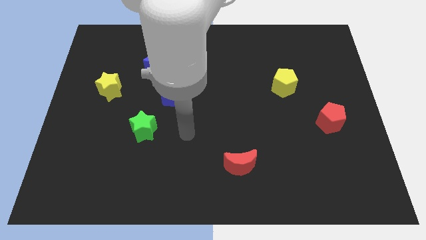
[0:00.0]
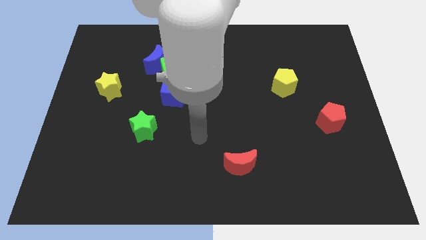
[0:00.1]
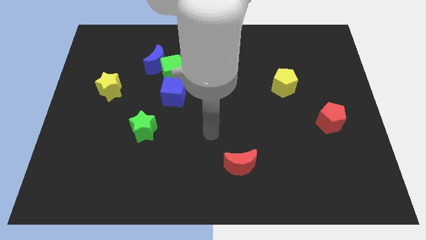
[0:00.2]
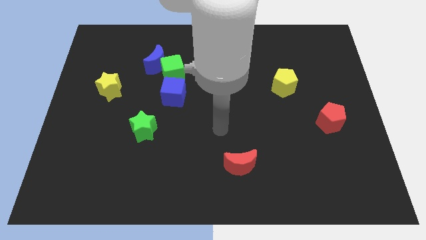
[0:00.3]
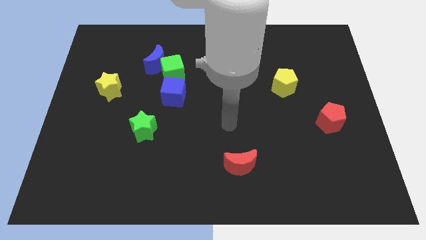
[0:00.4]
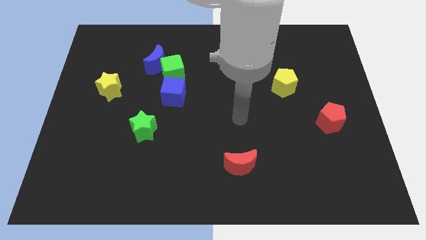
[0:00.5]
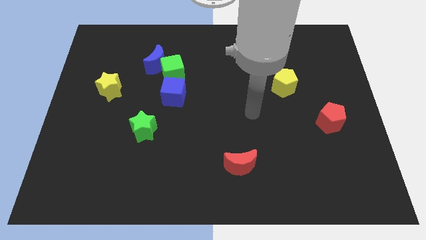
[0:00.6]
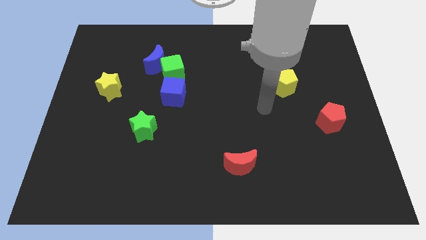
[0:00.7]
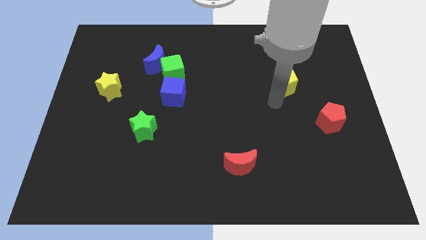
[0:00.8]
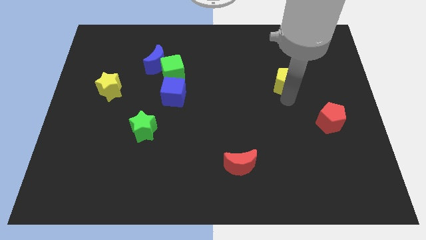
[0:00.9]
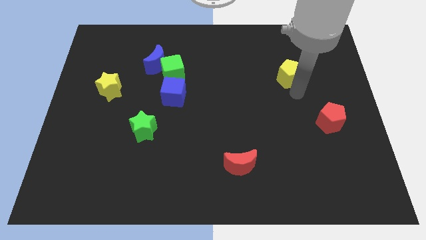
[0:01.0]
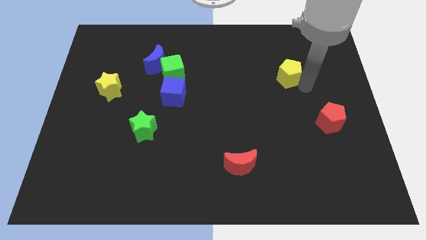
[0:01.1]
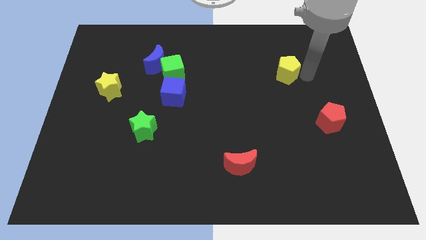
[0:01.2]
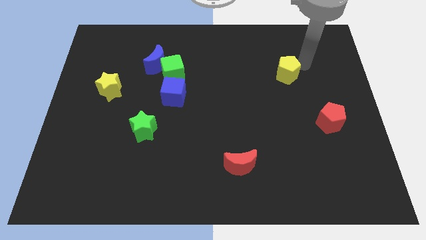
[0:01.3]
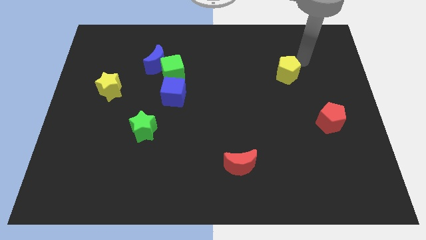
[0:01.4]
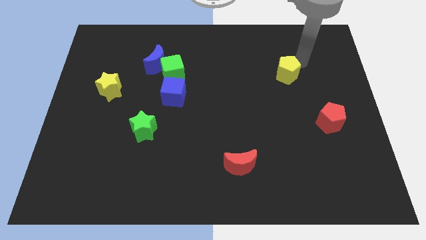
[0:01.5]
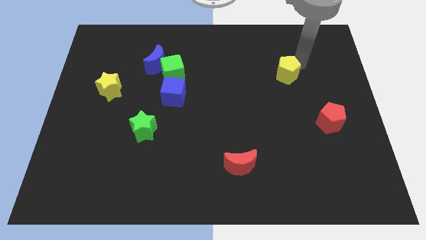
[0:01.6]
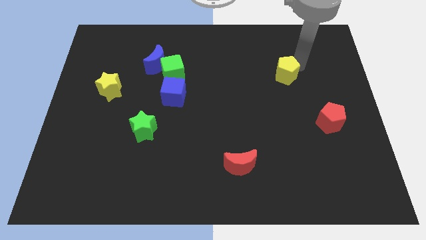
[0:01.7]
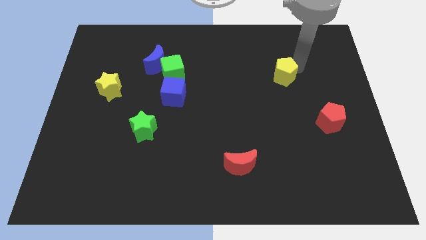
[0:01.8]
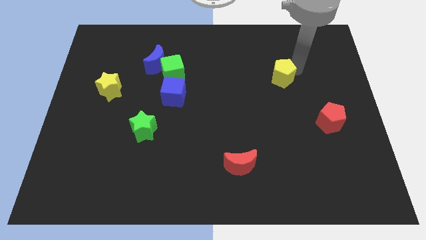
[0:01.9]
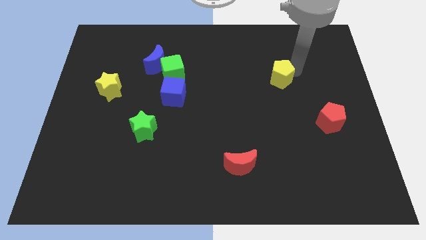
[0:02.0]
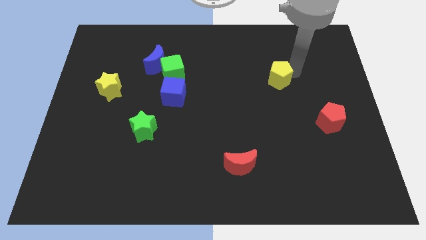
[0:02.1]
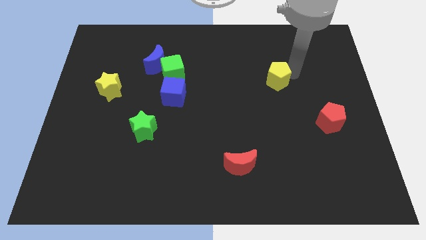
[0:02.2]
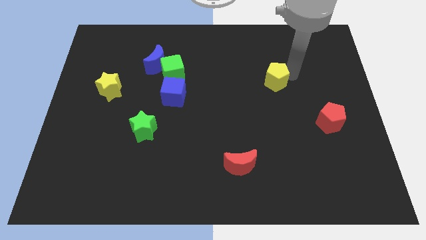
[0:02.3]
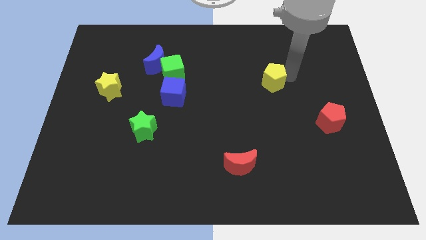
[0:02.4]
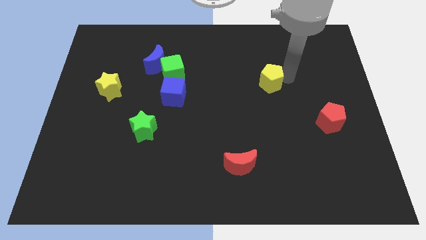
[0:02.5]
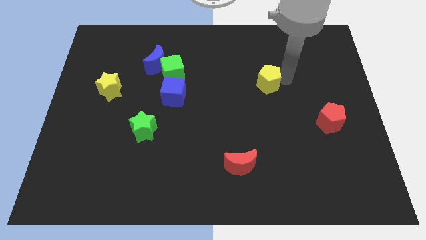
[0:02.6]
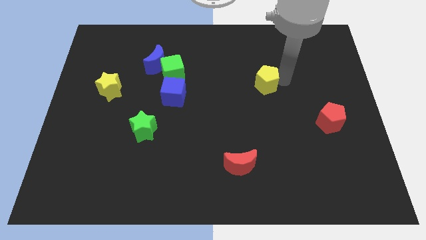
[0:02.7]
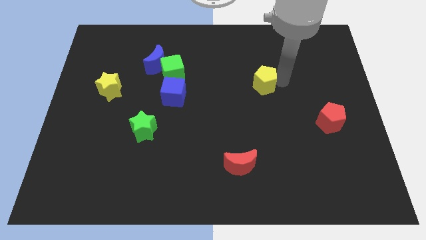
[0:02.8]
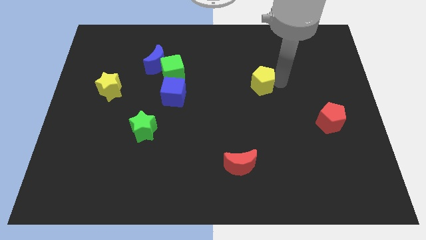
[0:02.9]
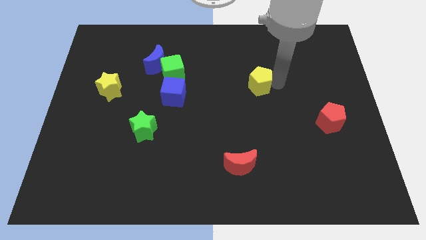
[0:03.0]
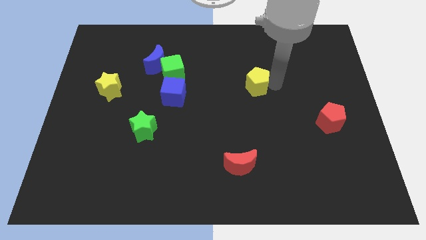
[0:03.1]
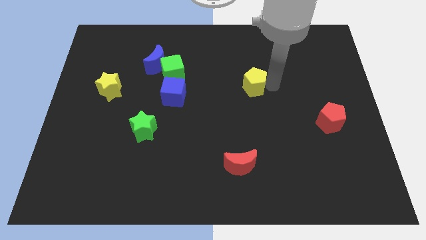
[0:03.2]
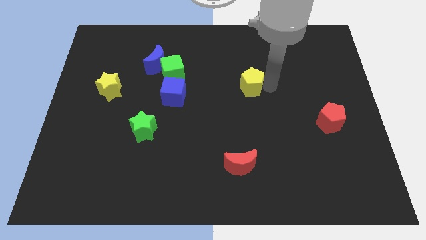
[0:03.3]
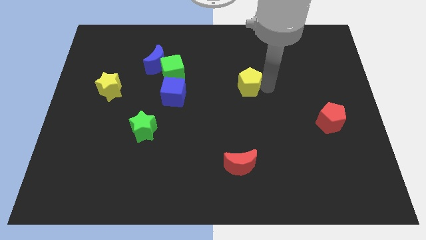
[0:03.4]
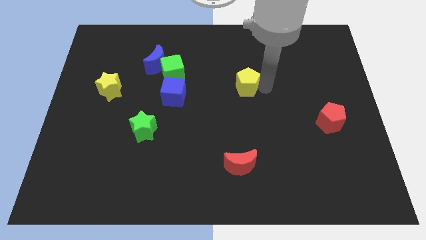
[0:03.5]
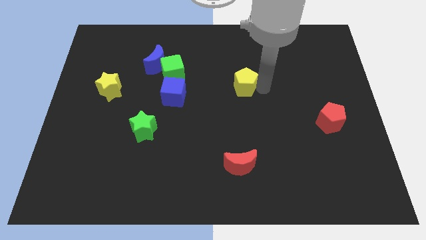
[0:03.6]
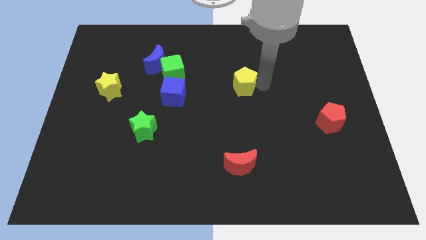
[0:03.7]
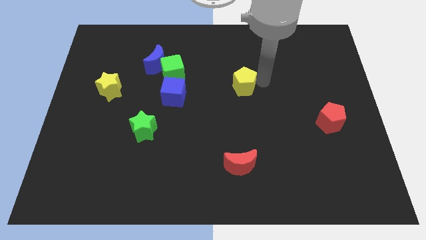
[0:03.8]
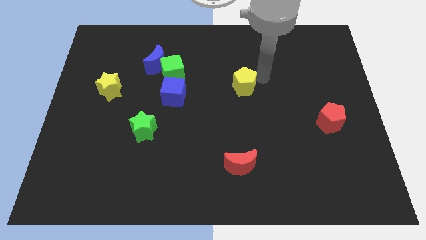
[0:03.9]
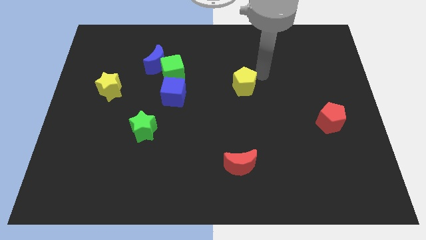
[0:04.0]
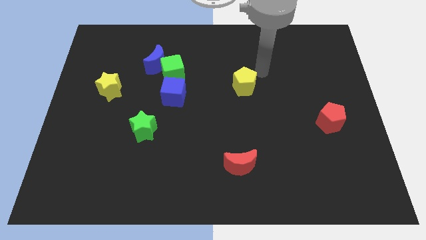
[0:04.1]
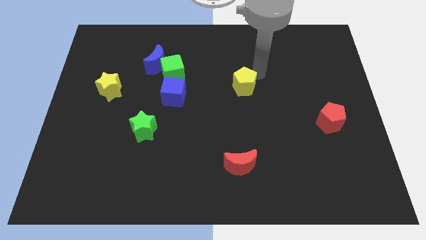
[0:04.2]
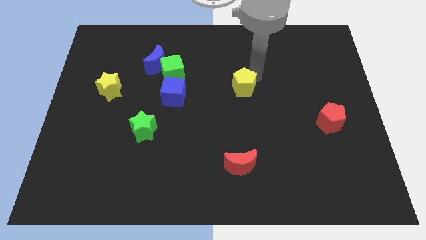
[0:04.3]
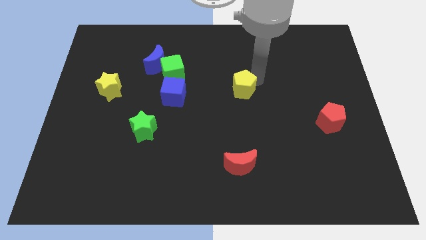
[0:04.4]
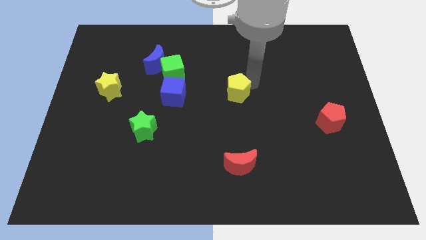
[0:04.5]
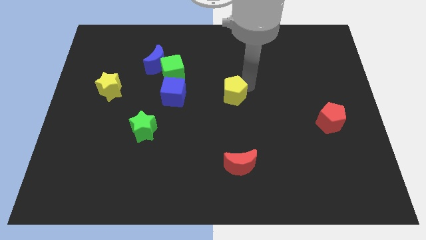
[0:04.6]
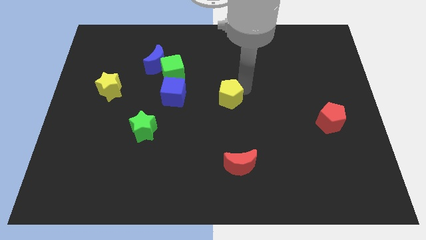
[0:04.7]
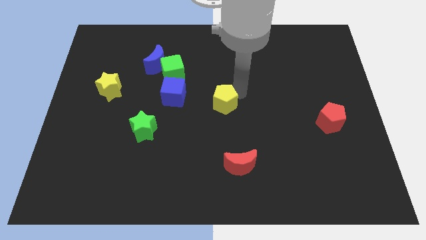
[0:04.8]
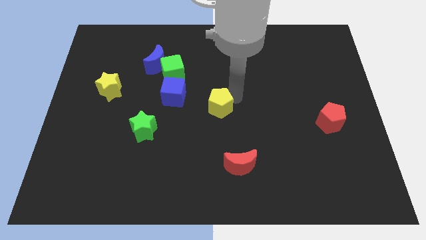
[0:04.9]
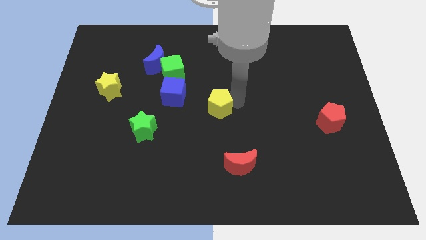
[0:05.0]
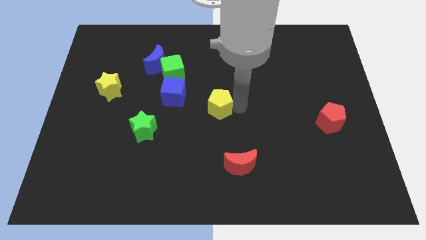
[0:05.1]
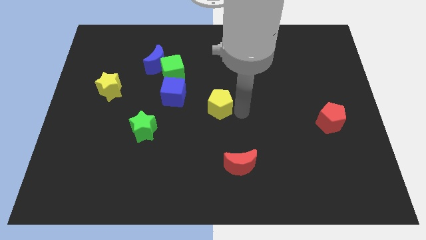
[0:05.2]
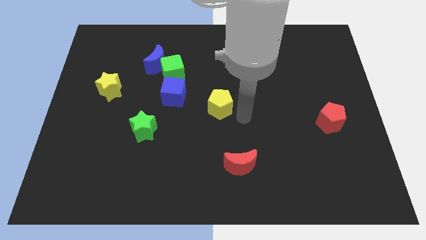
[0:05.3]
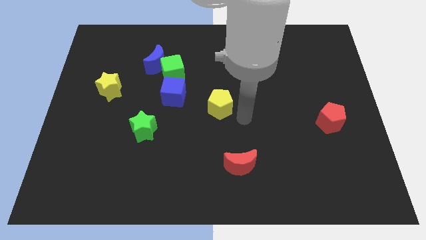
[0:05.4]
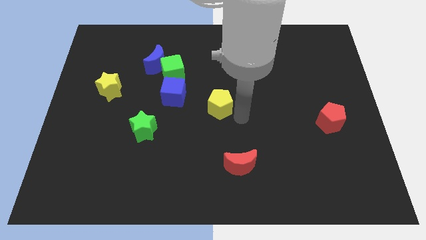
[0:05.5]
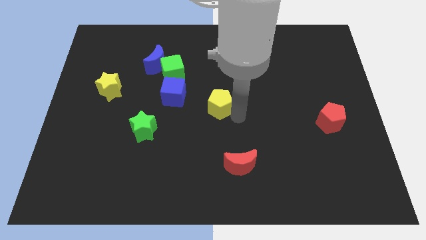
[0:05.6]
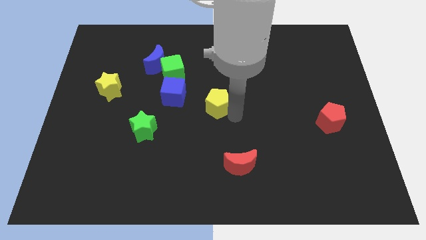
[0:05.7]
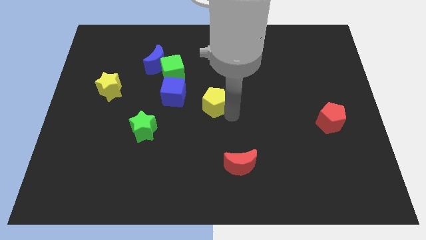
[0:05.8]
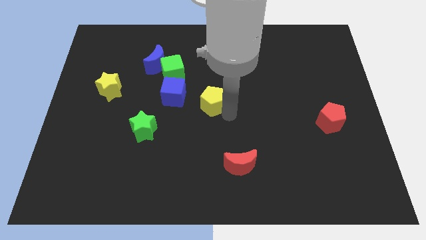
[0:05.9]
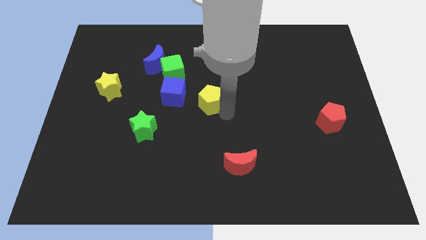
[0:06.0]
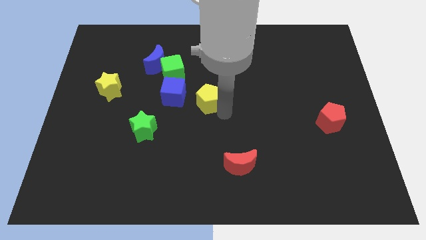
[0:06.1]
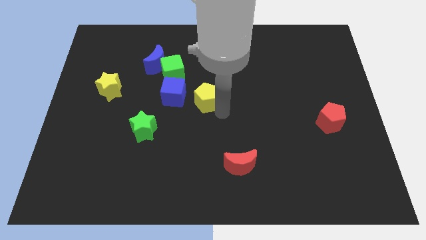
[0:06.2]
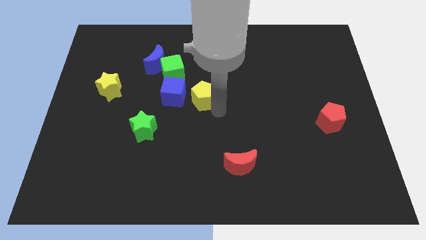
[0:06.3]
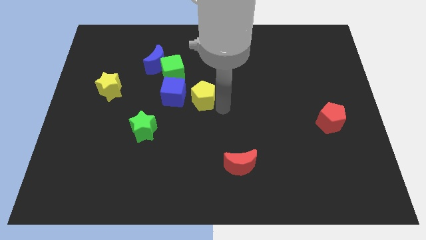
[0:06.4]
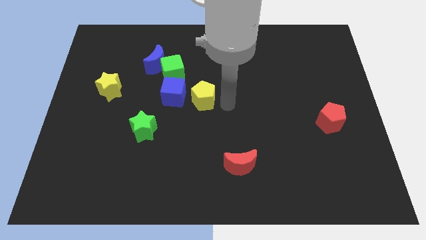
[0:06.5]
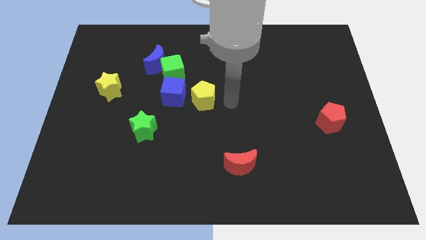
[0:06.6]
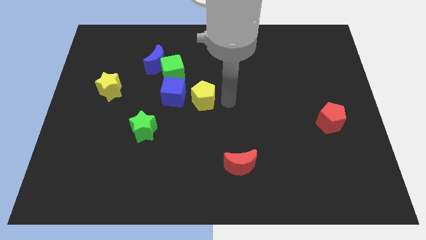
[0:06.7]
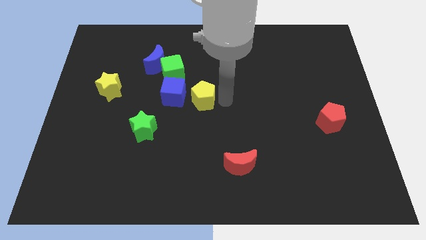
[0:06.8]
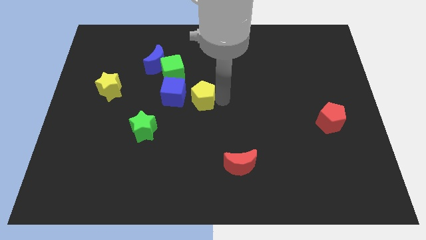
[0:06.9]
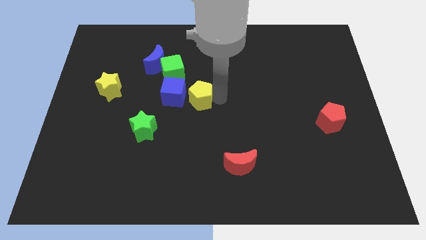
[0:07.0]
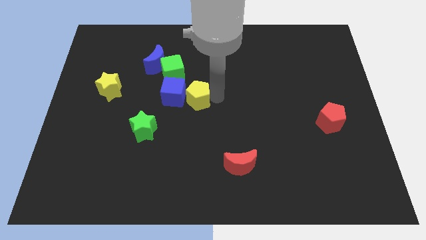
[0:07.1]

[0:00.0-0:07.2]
put the yellow pentagon close to the blue cube

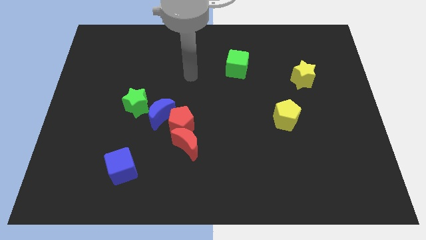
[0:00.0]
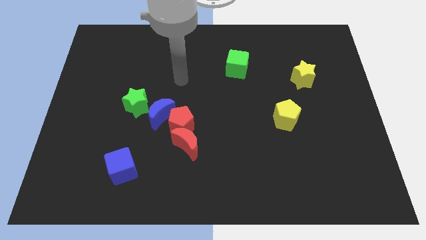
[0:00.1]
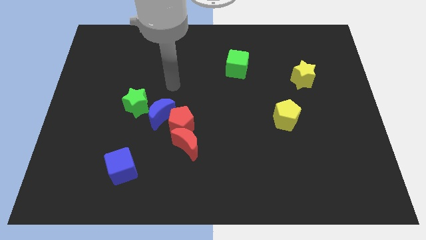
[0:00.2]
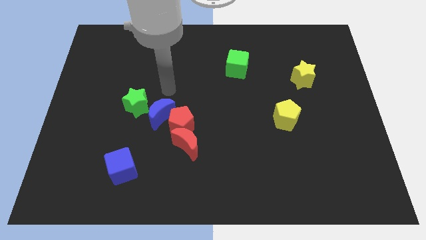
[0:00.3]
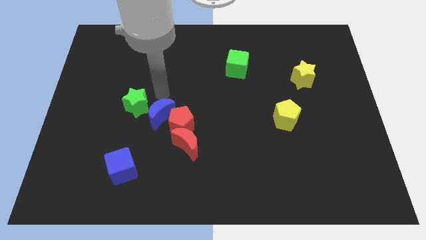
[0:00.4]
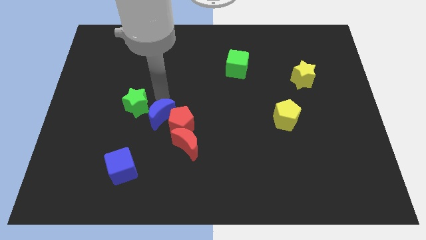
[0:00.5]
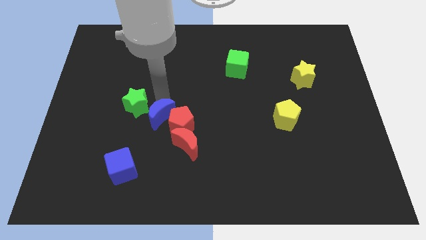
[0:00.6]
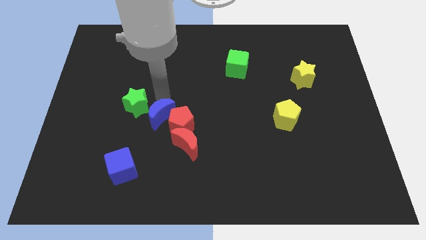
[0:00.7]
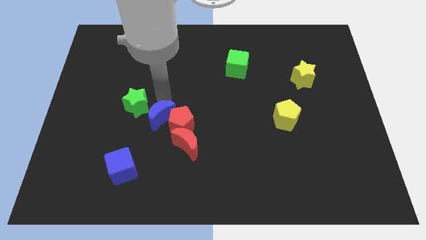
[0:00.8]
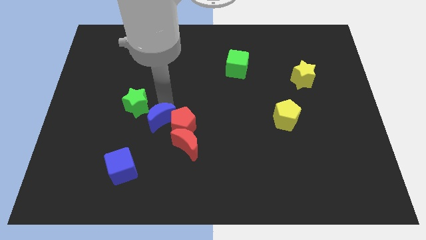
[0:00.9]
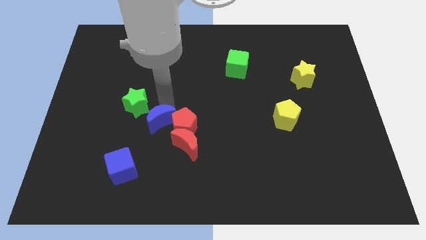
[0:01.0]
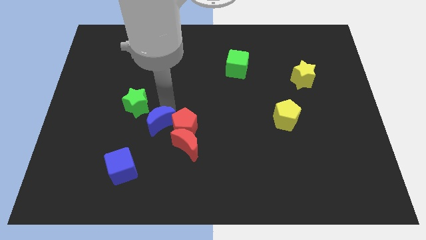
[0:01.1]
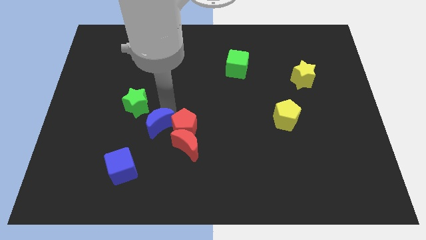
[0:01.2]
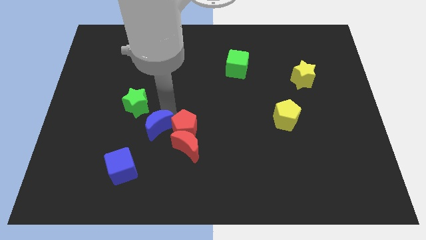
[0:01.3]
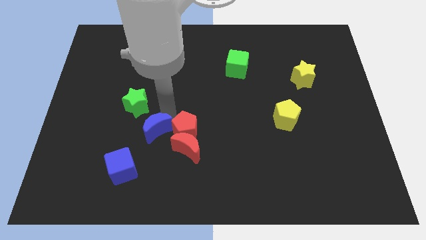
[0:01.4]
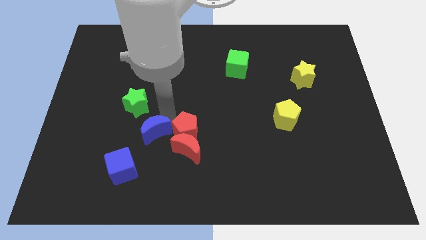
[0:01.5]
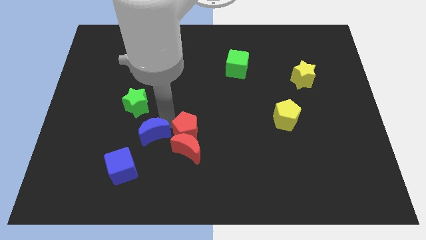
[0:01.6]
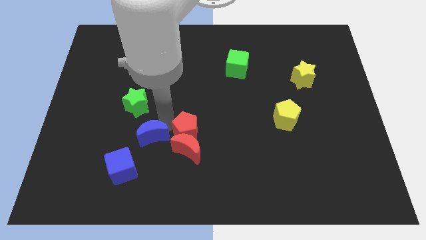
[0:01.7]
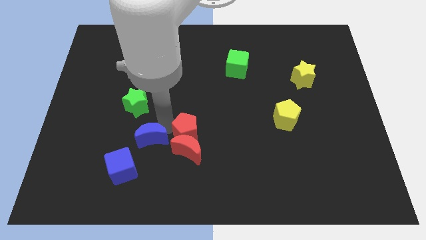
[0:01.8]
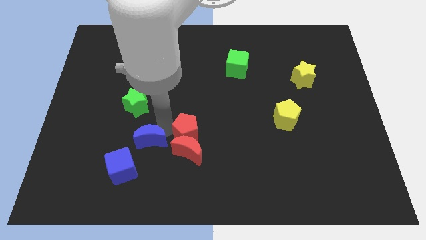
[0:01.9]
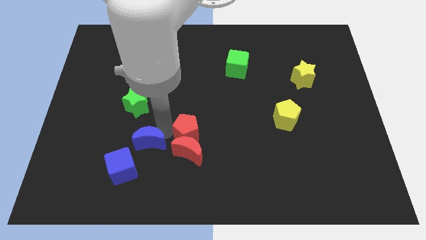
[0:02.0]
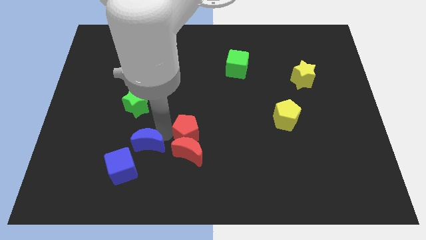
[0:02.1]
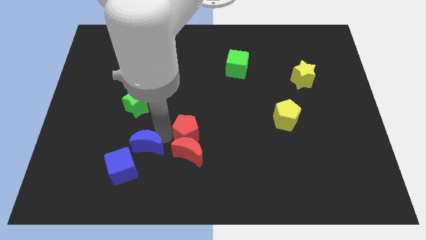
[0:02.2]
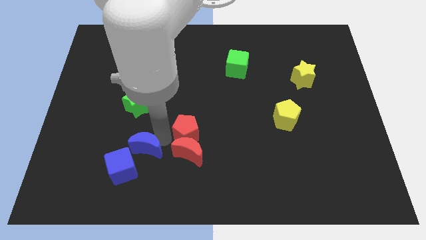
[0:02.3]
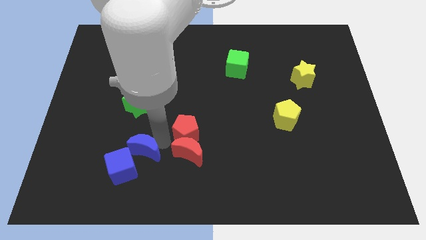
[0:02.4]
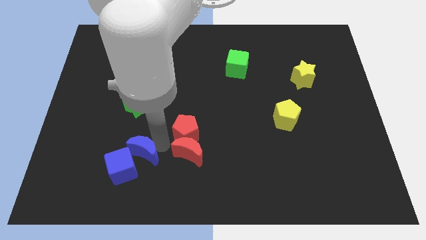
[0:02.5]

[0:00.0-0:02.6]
put the blue moon close to the blue cube
